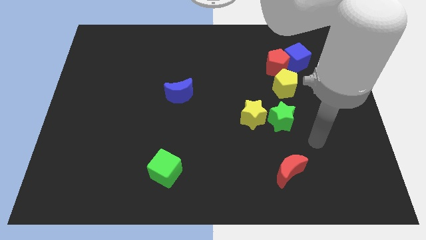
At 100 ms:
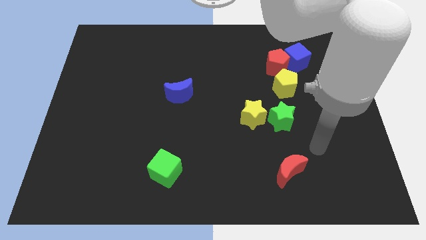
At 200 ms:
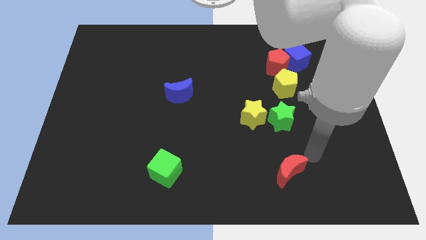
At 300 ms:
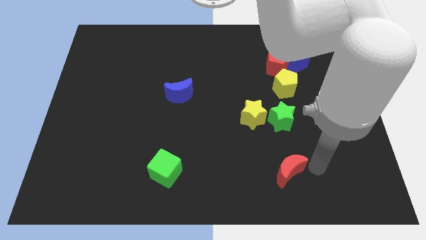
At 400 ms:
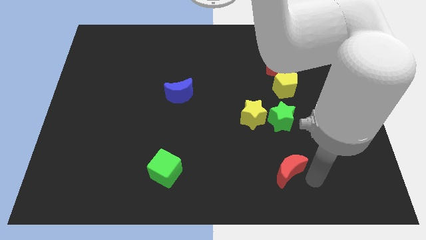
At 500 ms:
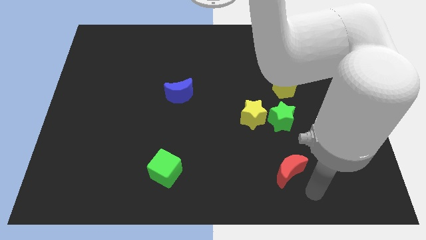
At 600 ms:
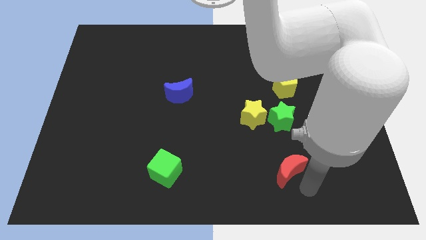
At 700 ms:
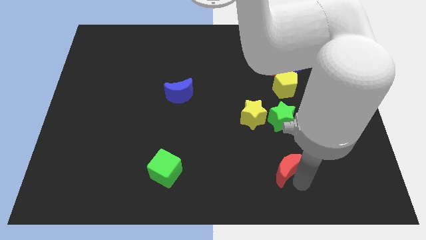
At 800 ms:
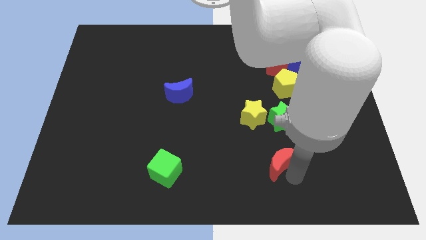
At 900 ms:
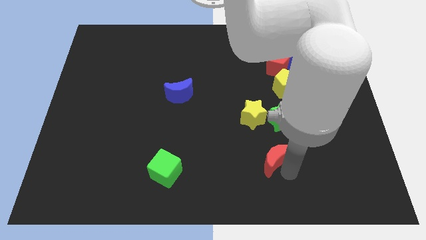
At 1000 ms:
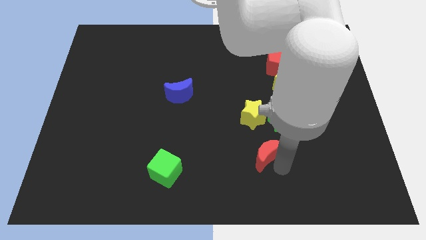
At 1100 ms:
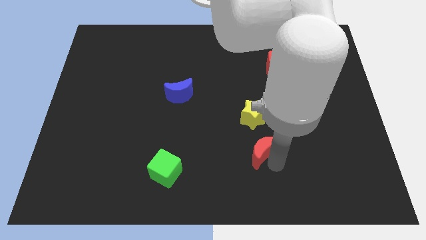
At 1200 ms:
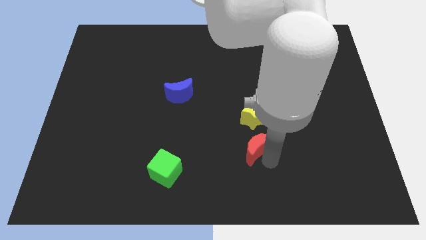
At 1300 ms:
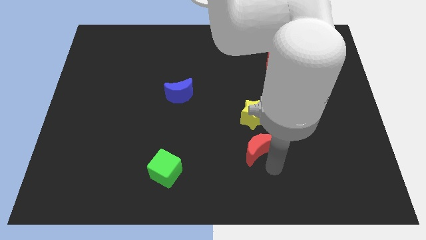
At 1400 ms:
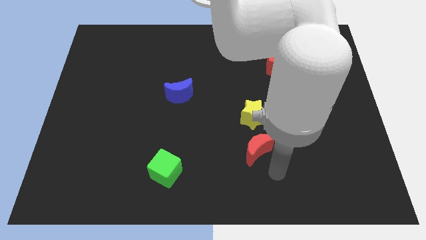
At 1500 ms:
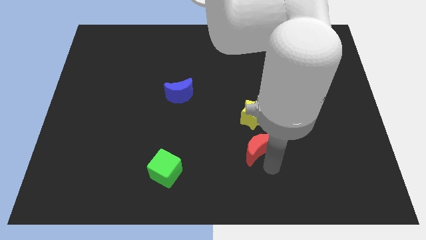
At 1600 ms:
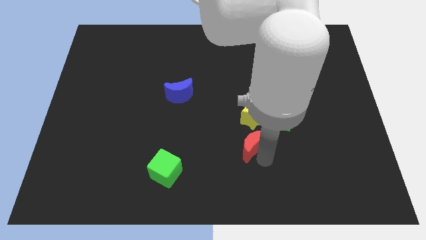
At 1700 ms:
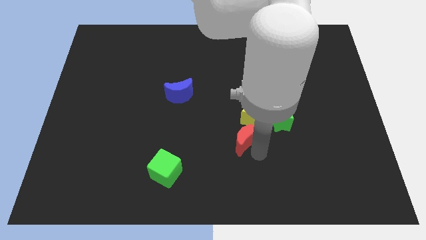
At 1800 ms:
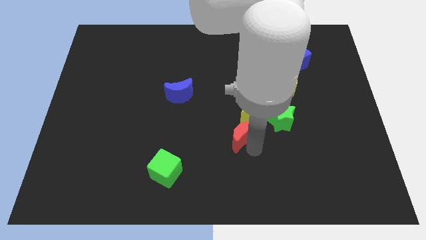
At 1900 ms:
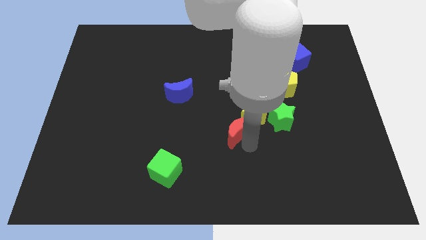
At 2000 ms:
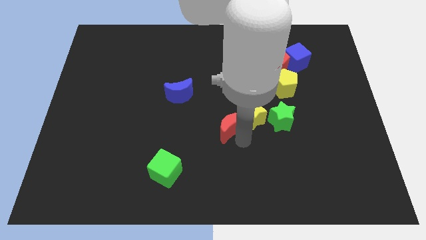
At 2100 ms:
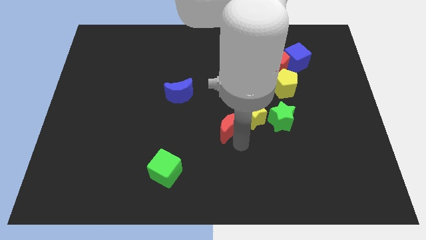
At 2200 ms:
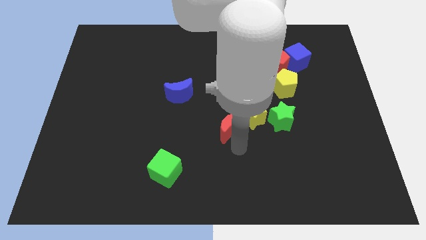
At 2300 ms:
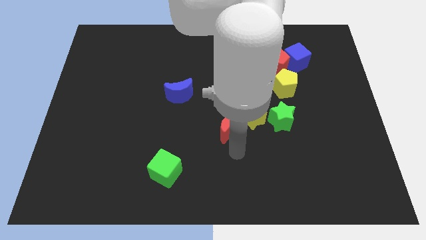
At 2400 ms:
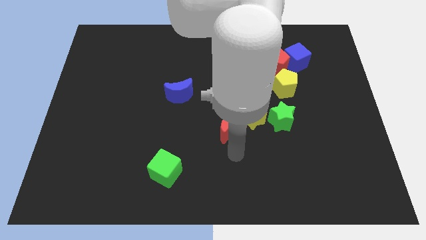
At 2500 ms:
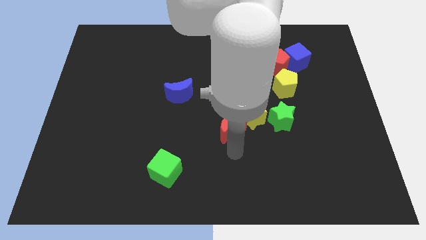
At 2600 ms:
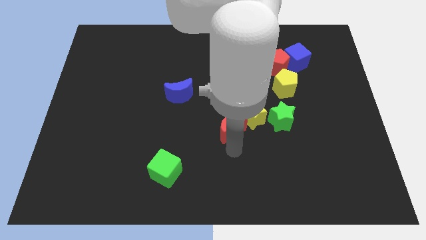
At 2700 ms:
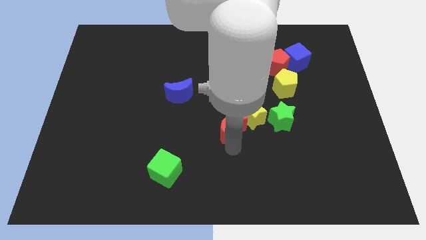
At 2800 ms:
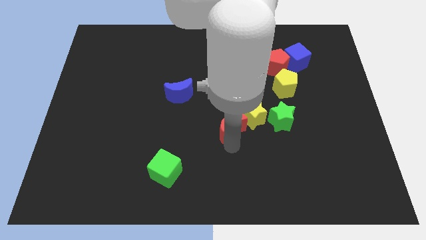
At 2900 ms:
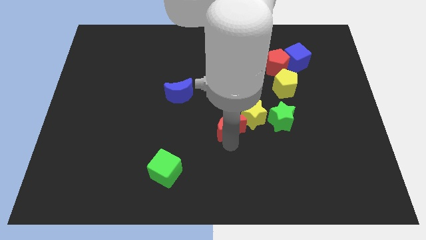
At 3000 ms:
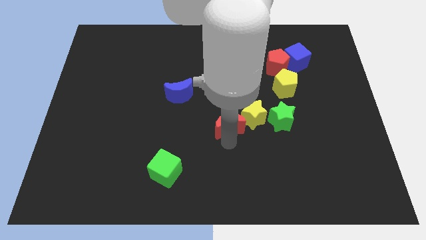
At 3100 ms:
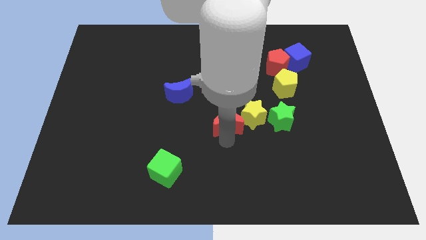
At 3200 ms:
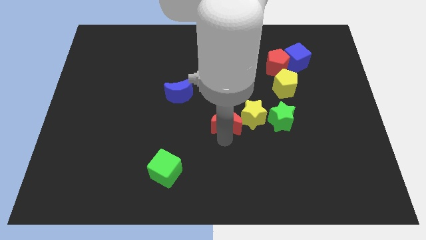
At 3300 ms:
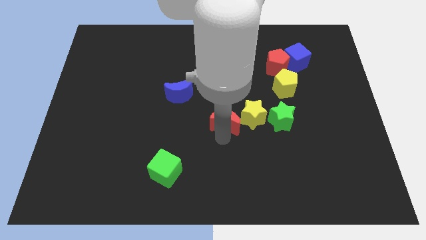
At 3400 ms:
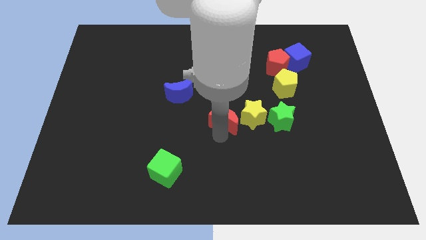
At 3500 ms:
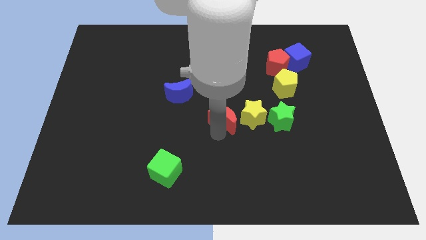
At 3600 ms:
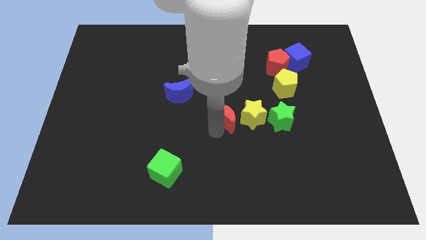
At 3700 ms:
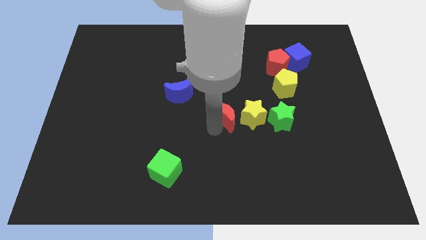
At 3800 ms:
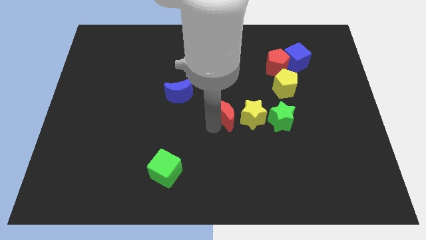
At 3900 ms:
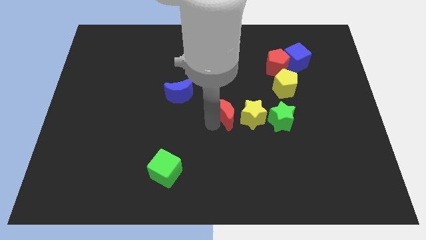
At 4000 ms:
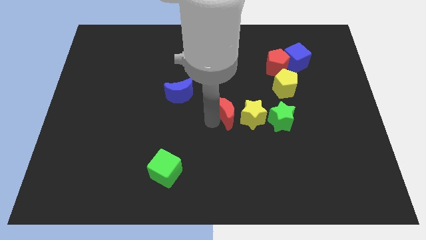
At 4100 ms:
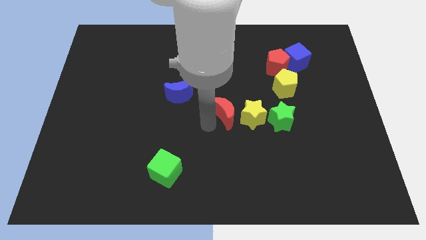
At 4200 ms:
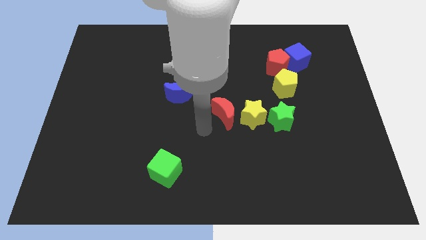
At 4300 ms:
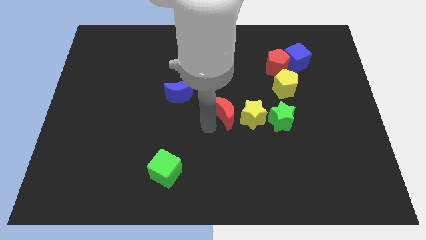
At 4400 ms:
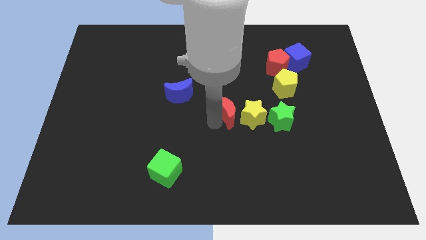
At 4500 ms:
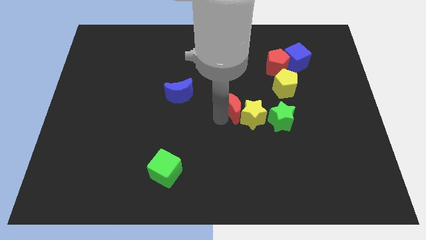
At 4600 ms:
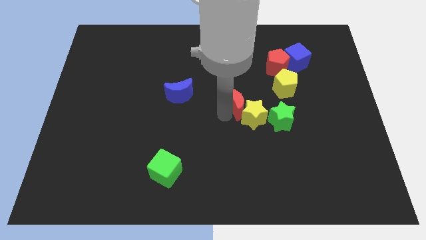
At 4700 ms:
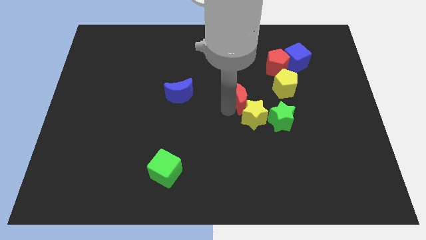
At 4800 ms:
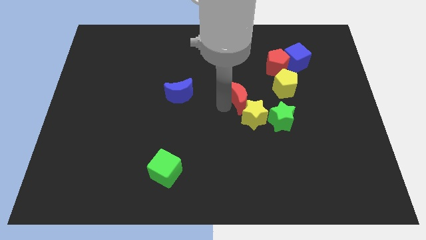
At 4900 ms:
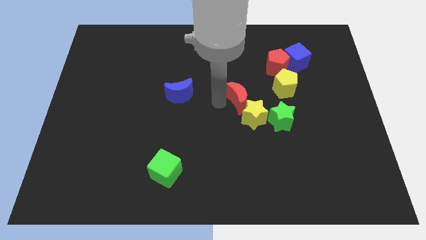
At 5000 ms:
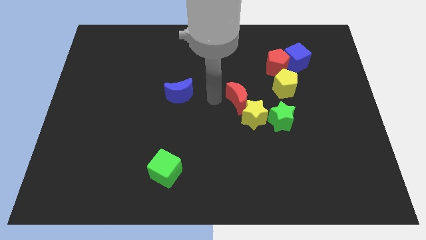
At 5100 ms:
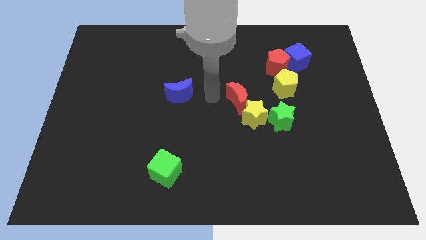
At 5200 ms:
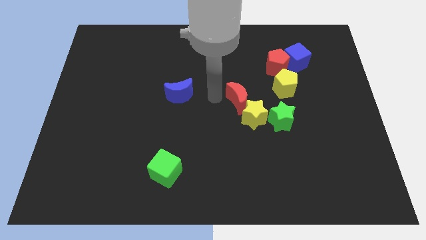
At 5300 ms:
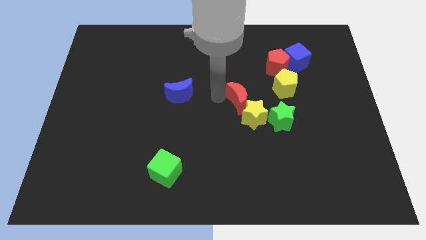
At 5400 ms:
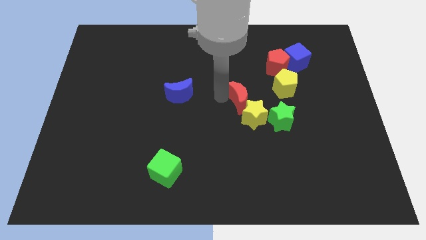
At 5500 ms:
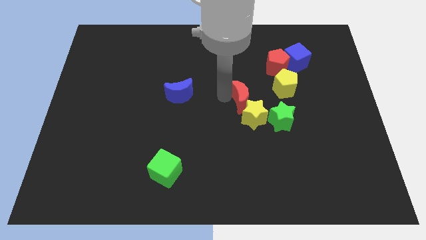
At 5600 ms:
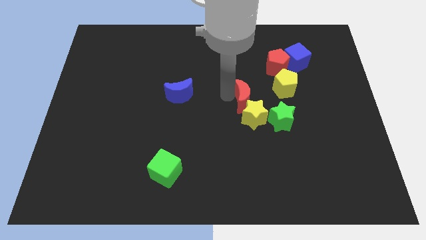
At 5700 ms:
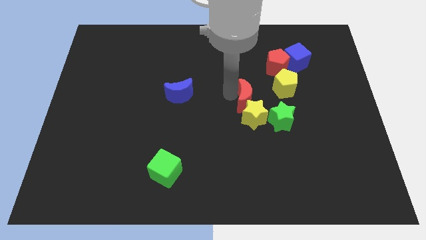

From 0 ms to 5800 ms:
push the red moon diagonally down and to the left of the yellow pentagon

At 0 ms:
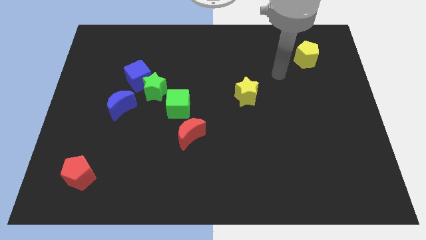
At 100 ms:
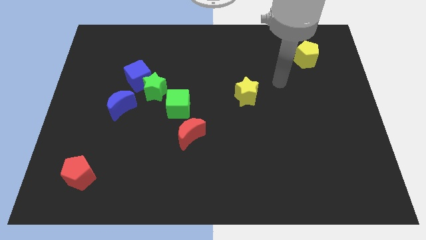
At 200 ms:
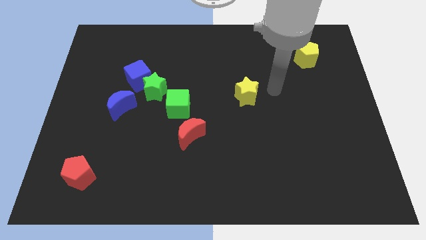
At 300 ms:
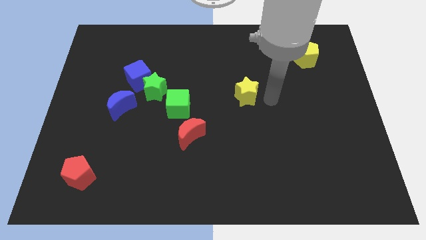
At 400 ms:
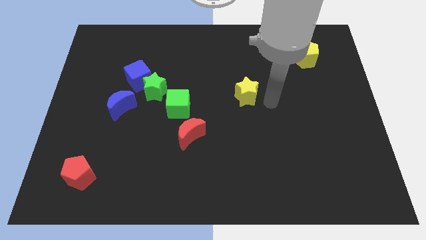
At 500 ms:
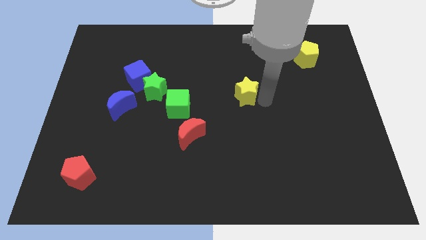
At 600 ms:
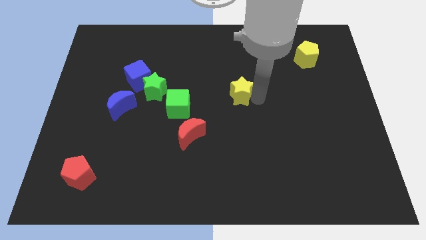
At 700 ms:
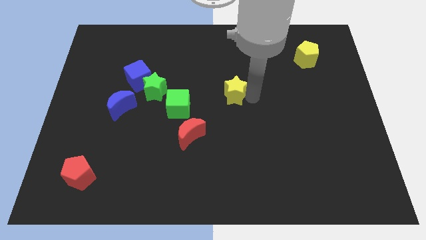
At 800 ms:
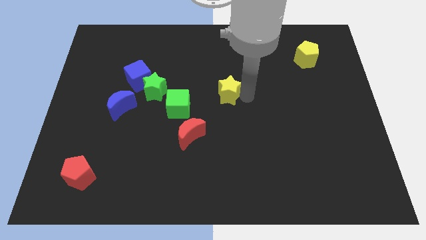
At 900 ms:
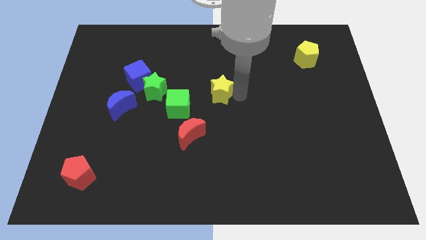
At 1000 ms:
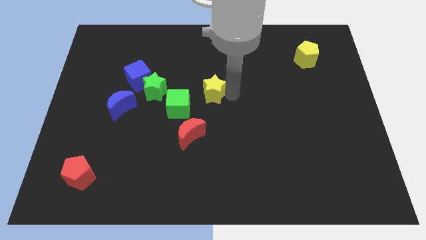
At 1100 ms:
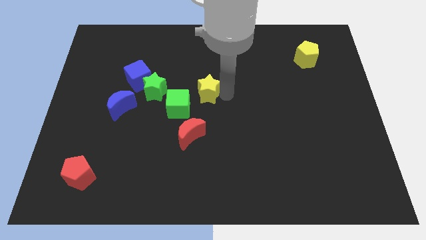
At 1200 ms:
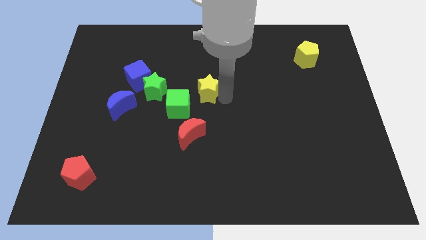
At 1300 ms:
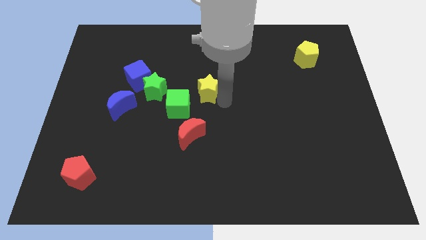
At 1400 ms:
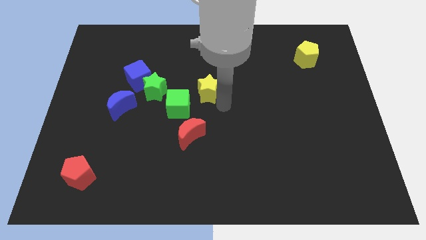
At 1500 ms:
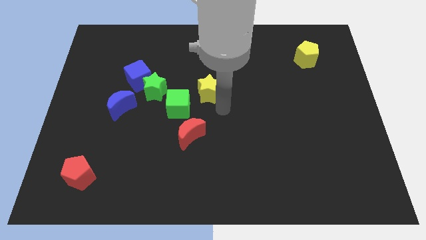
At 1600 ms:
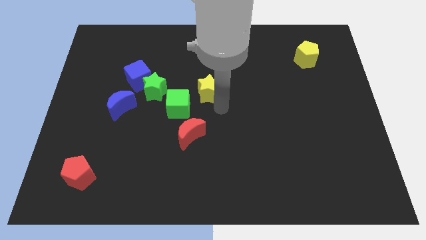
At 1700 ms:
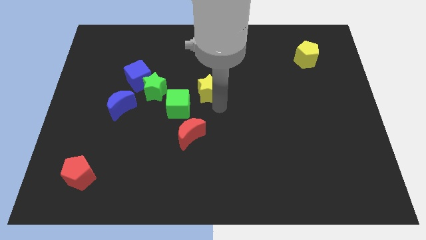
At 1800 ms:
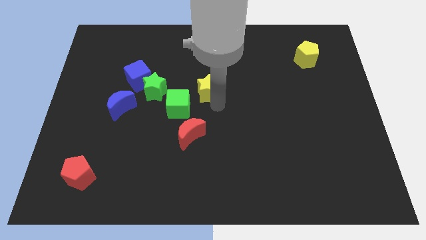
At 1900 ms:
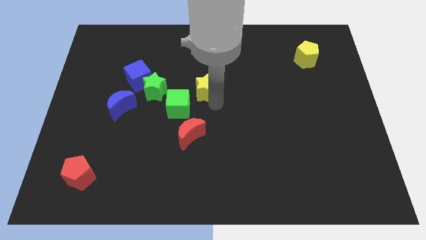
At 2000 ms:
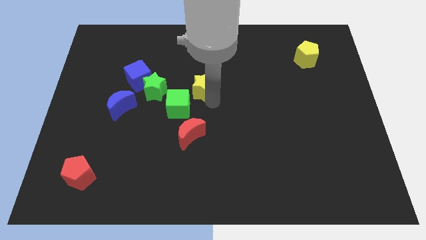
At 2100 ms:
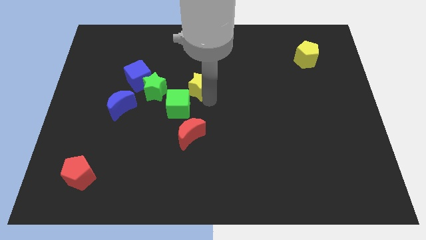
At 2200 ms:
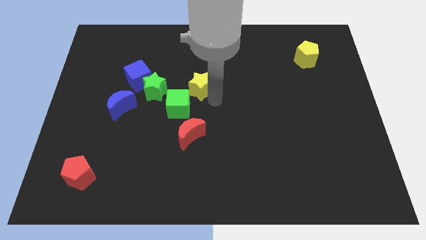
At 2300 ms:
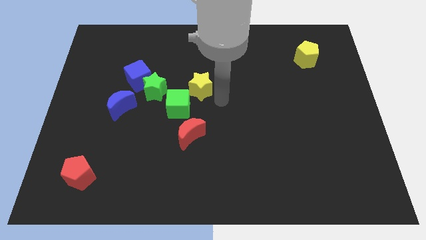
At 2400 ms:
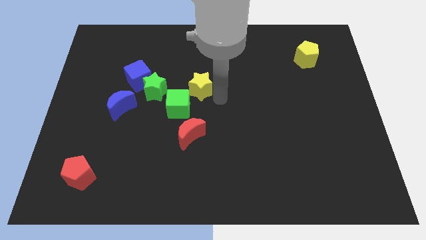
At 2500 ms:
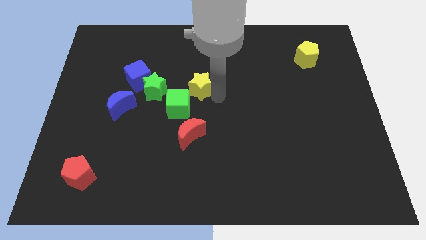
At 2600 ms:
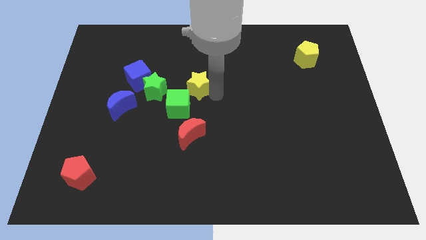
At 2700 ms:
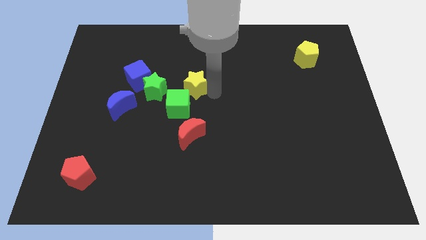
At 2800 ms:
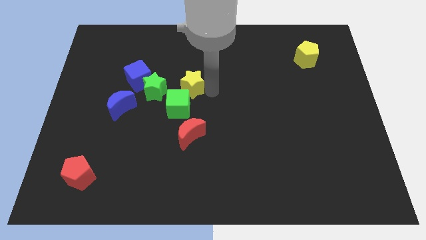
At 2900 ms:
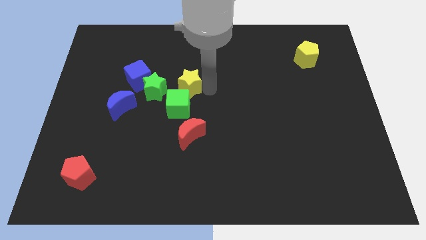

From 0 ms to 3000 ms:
move the yellow star diagonally up and to the right of the green star
